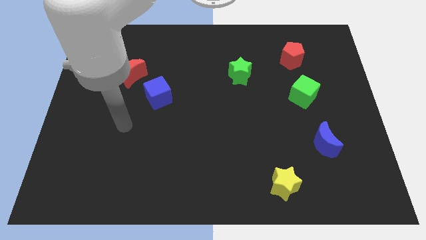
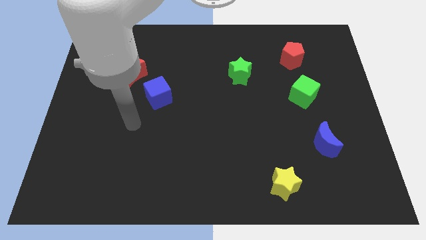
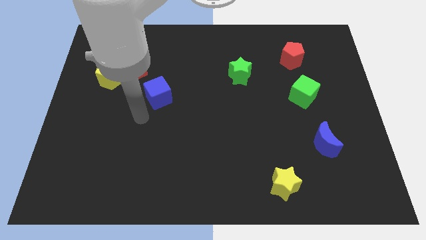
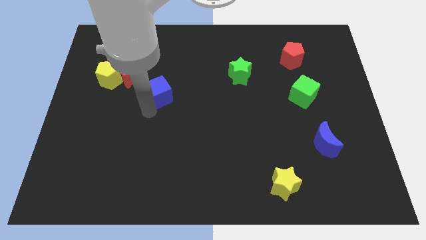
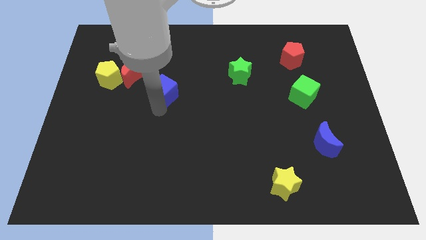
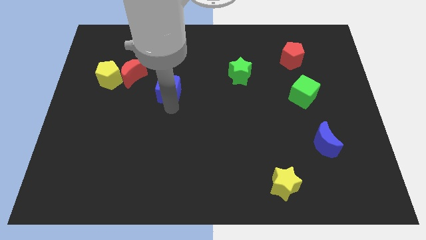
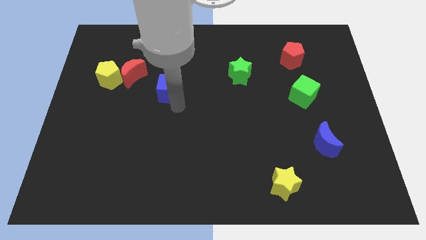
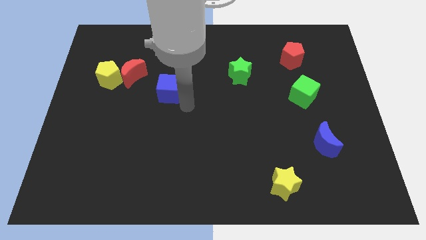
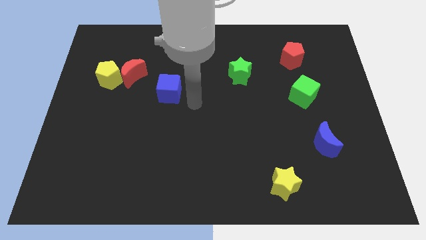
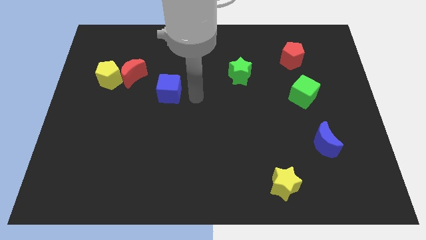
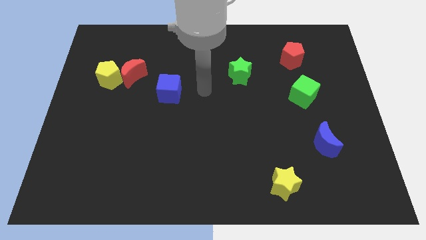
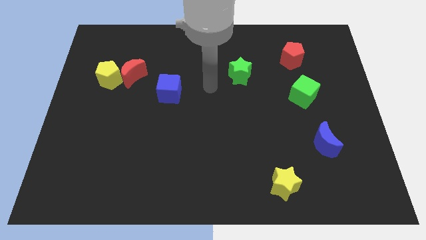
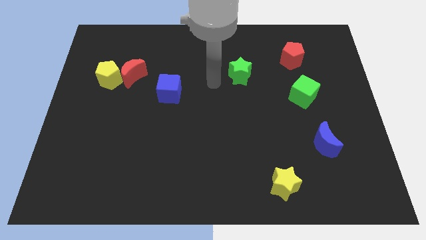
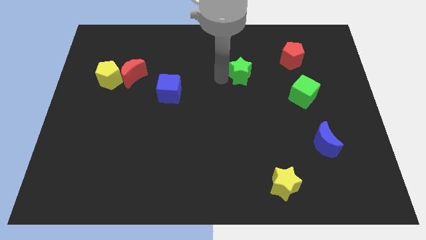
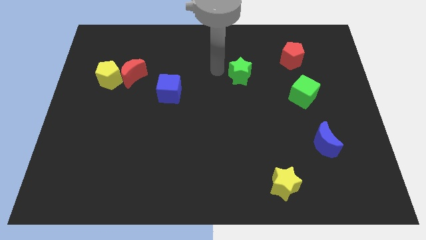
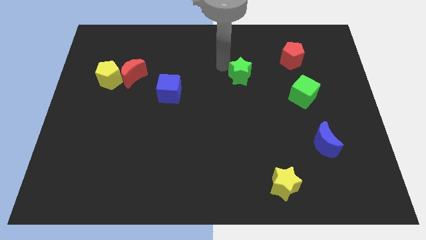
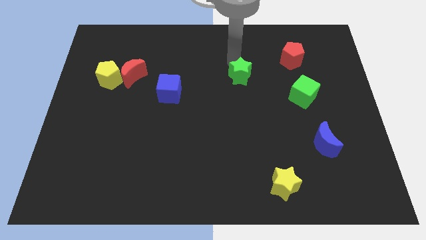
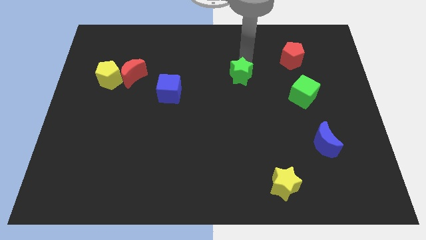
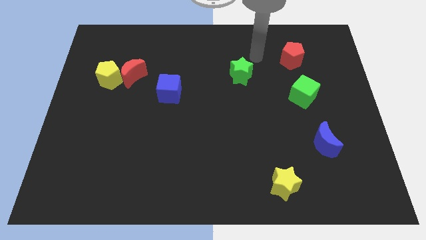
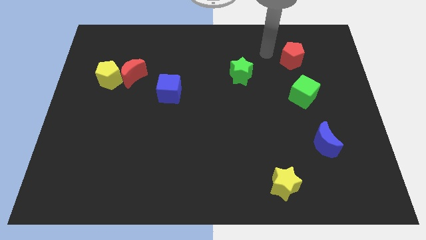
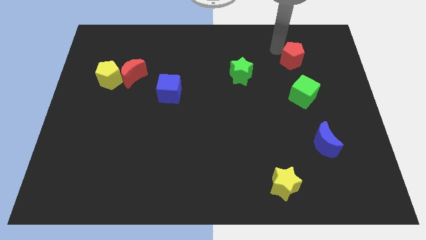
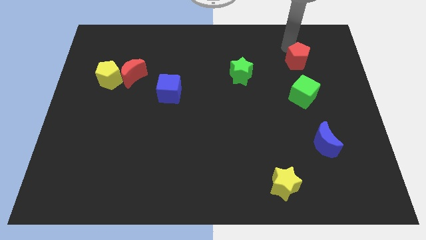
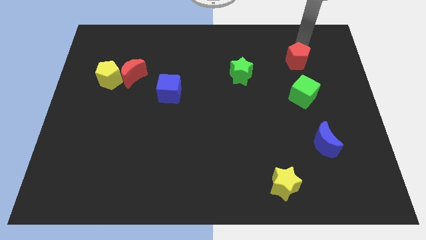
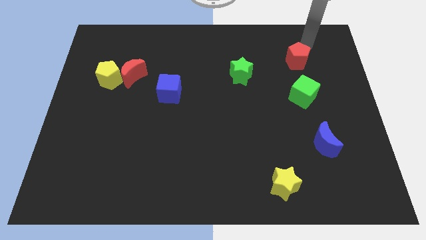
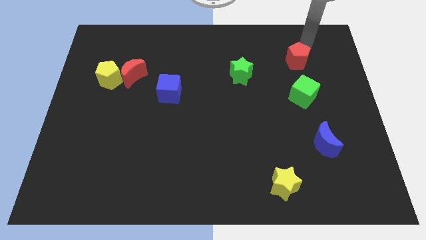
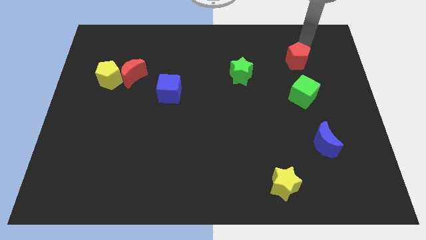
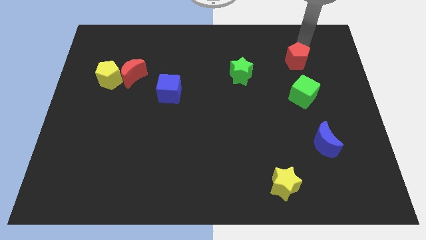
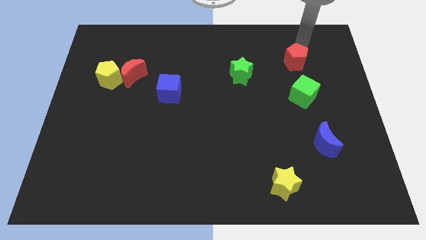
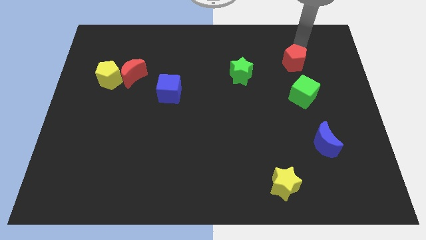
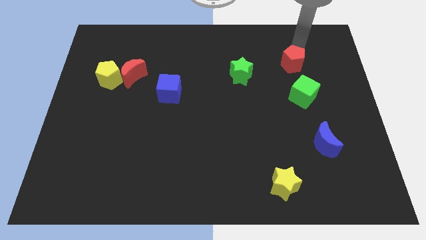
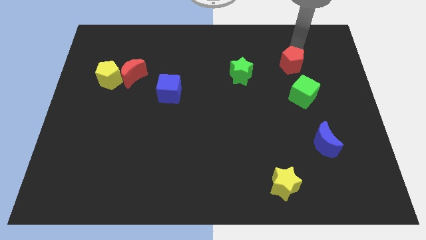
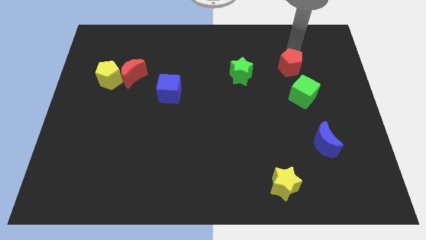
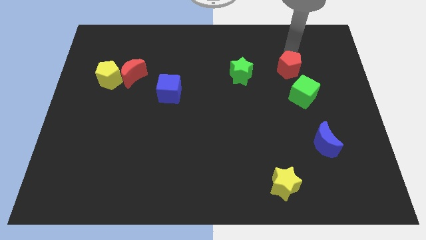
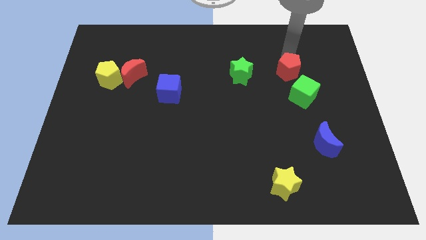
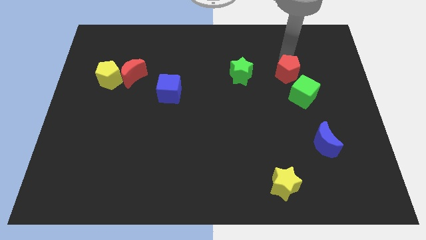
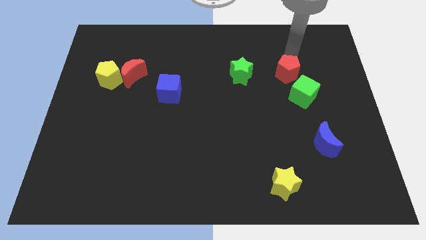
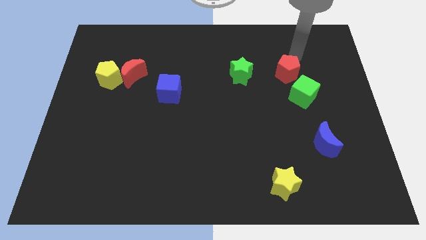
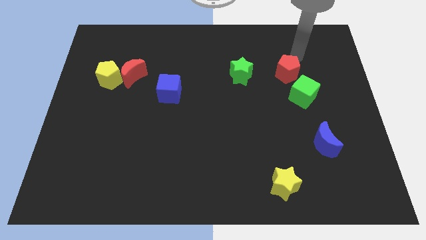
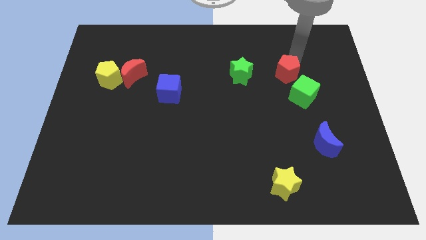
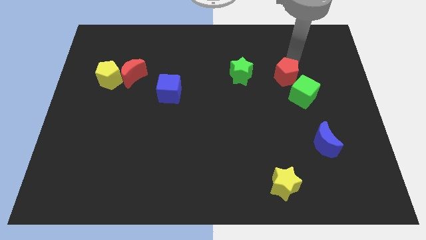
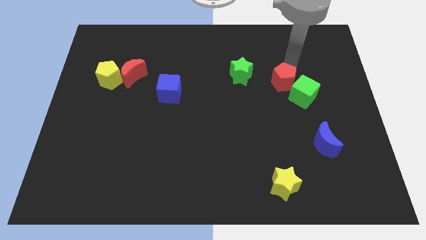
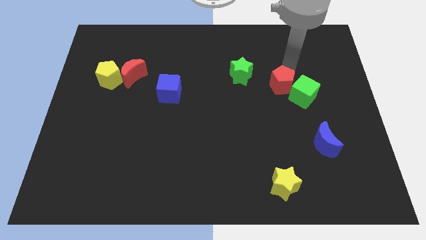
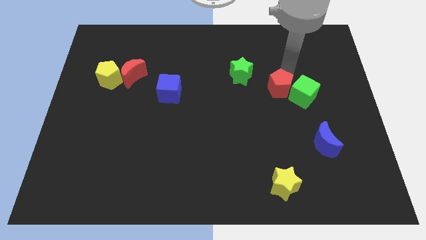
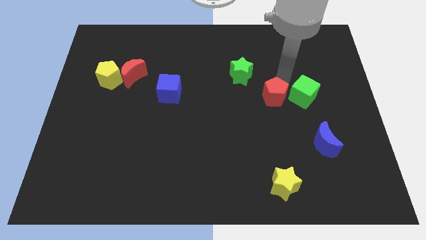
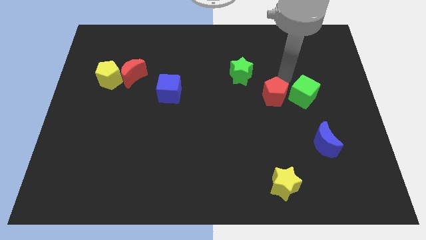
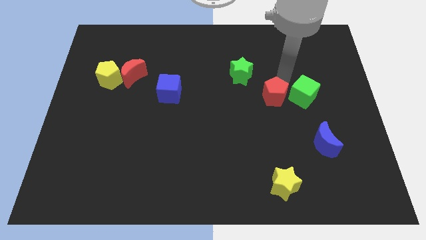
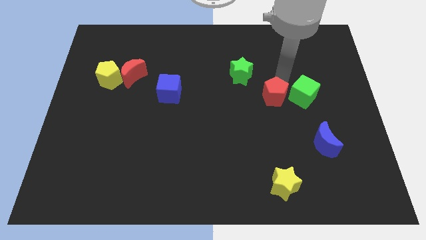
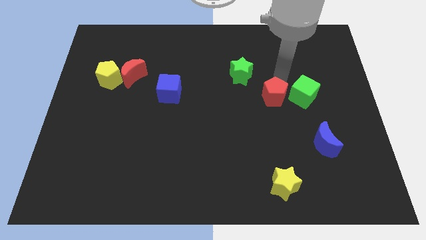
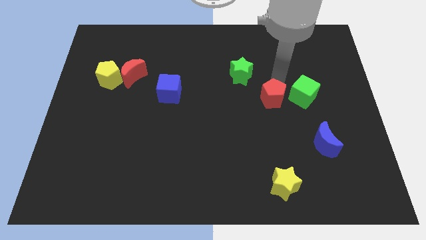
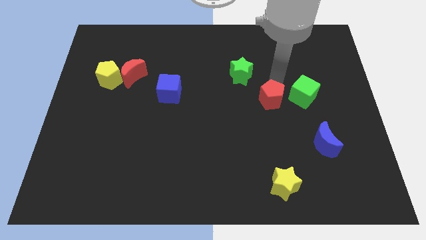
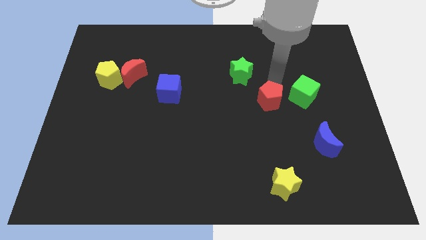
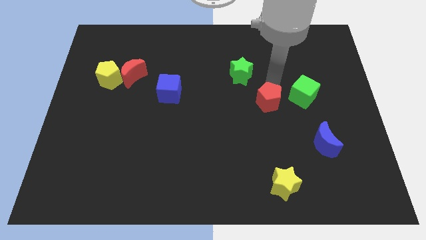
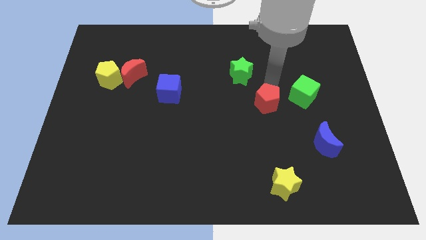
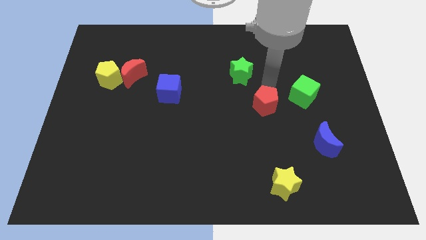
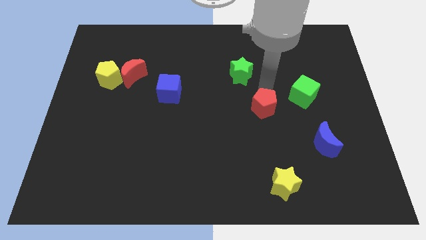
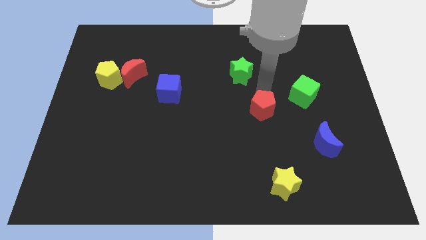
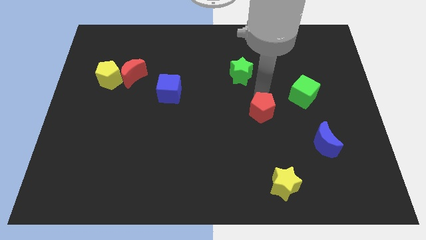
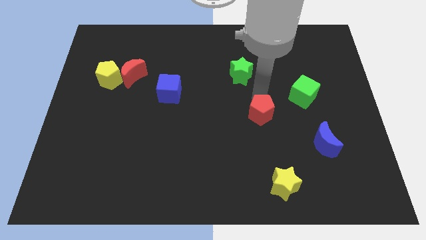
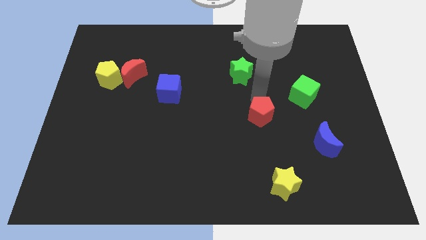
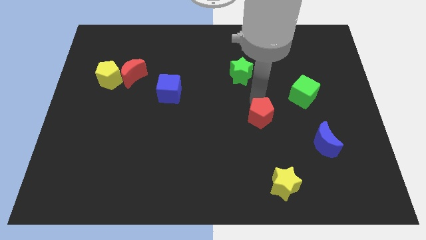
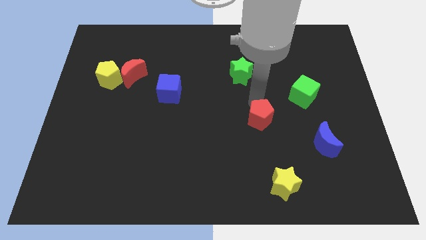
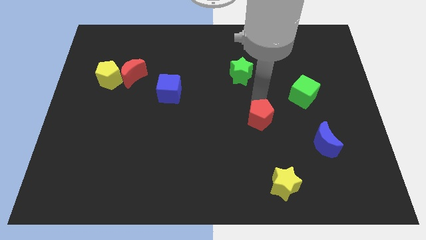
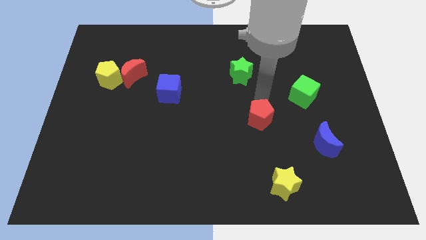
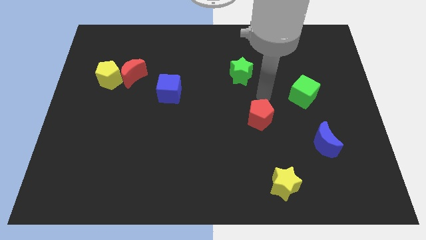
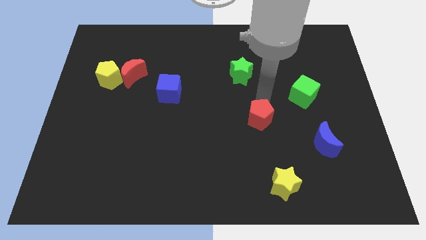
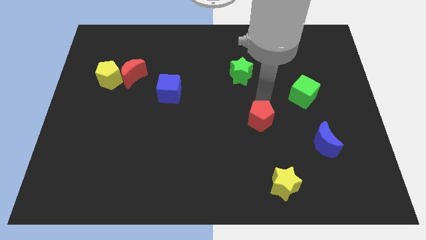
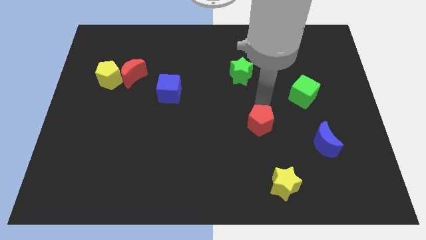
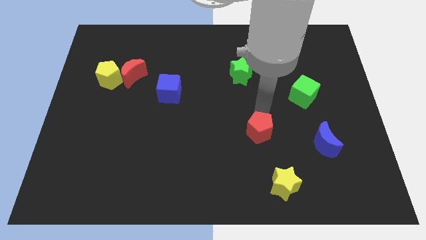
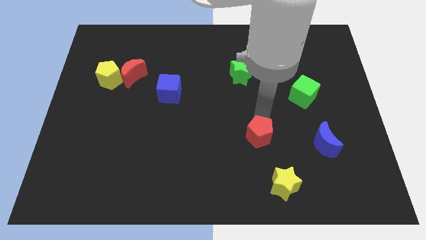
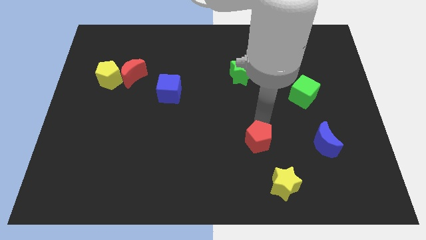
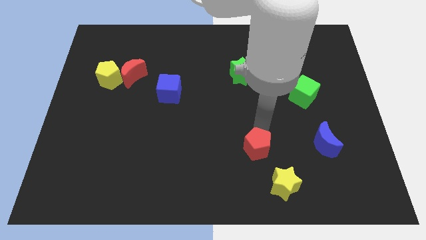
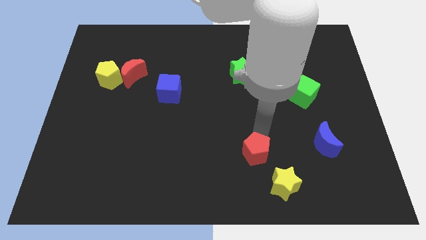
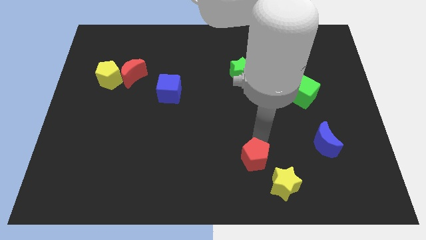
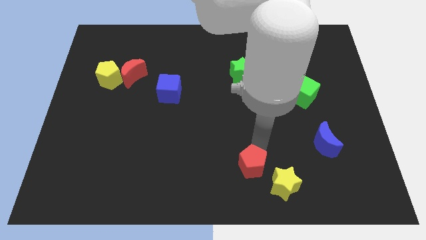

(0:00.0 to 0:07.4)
slide the red pentagon to the bottom
